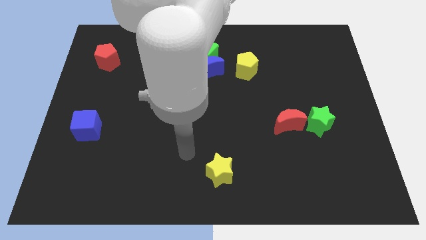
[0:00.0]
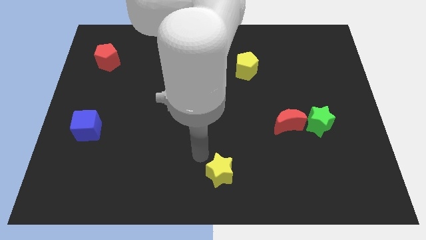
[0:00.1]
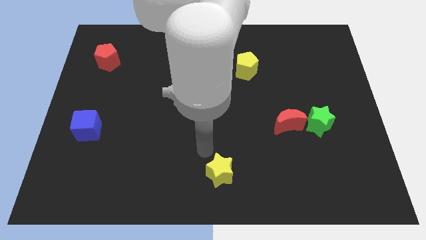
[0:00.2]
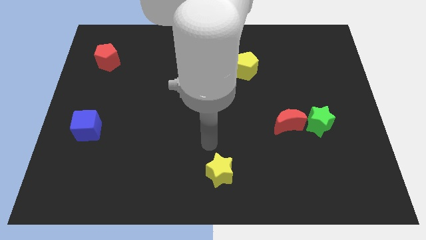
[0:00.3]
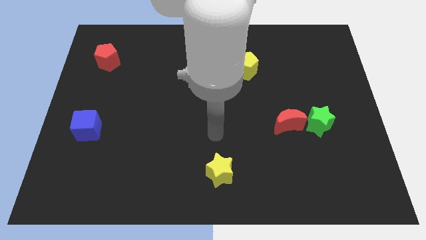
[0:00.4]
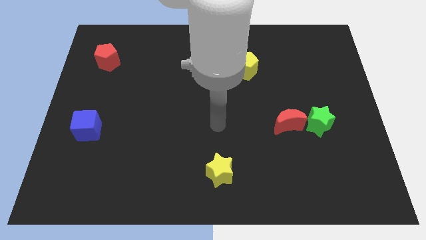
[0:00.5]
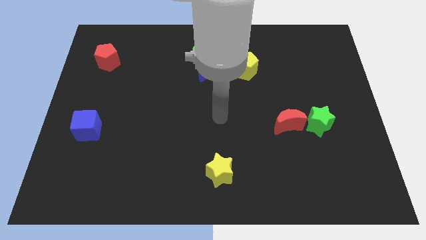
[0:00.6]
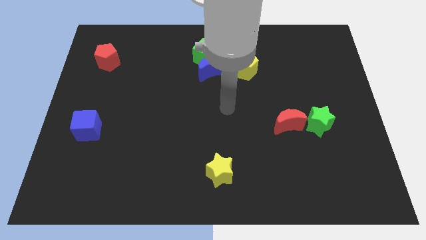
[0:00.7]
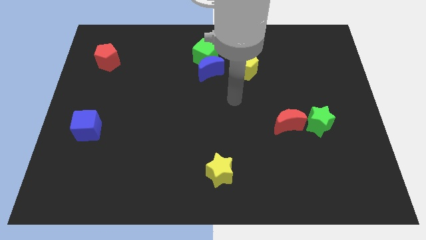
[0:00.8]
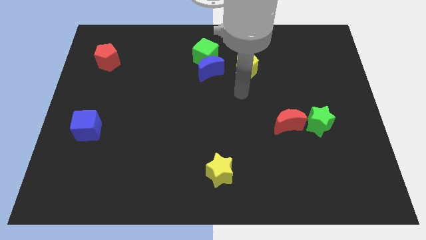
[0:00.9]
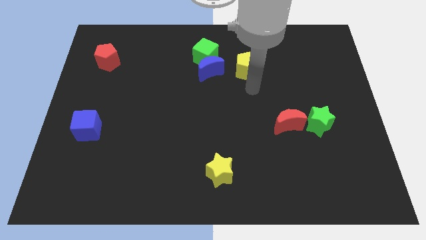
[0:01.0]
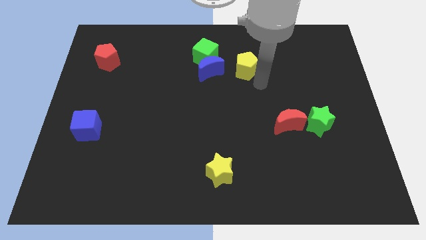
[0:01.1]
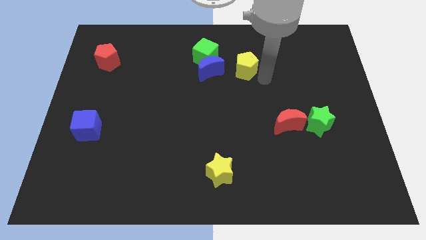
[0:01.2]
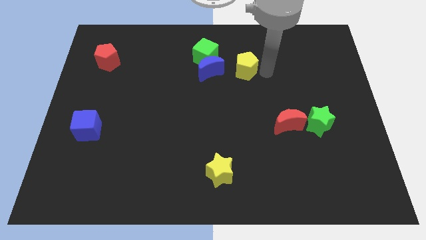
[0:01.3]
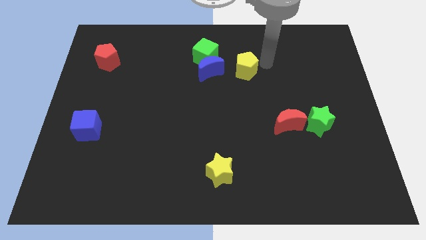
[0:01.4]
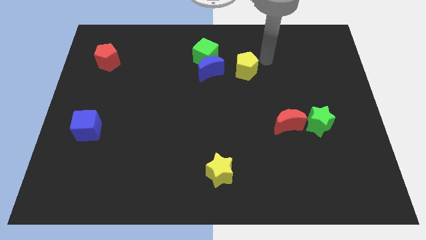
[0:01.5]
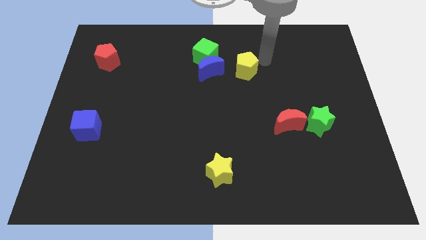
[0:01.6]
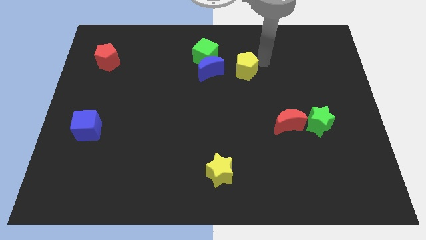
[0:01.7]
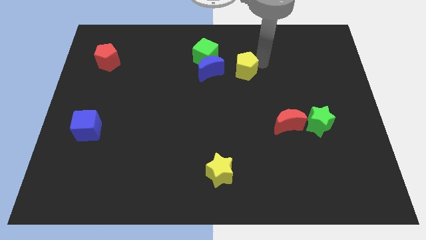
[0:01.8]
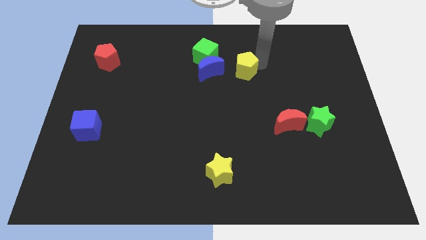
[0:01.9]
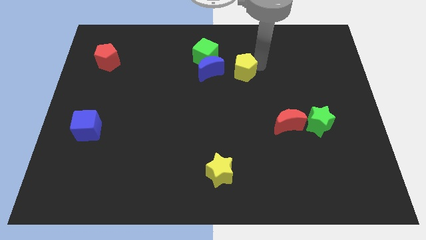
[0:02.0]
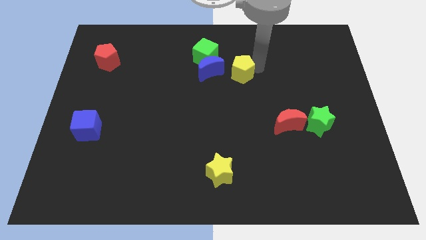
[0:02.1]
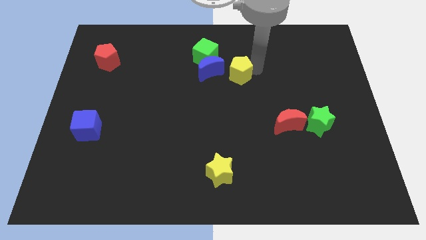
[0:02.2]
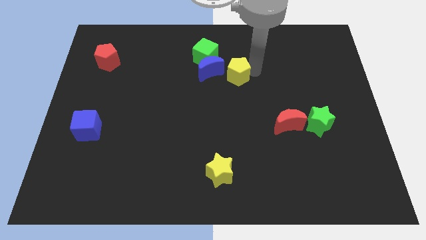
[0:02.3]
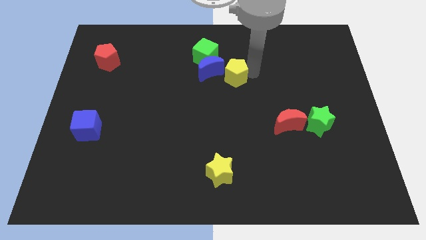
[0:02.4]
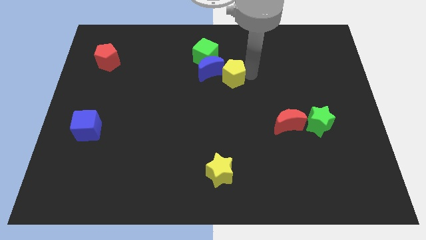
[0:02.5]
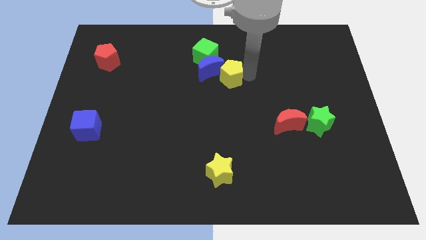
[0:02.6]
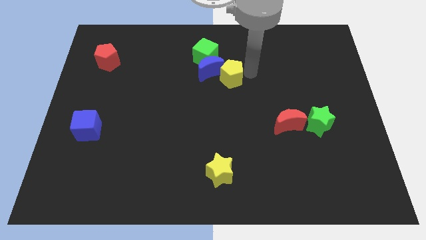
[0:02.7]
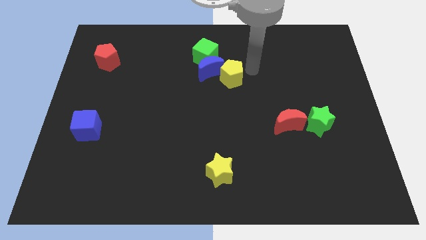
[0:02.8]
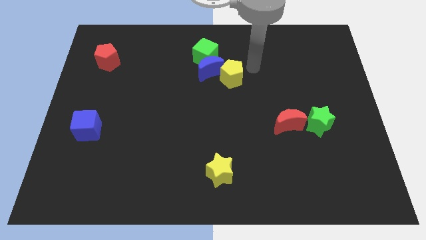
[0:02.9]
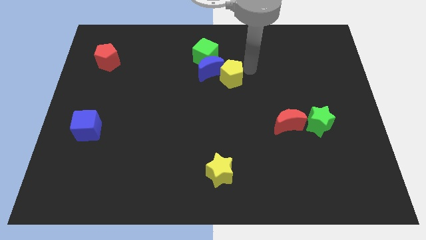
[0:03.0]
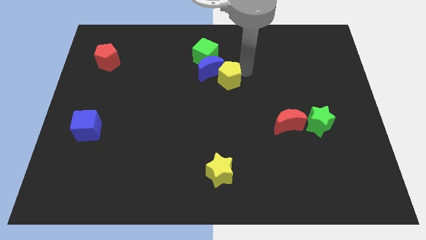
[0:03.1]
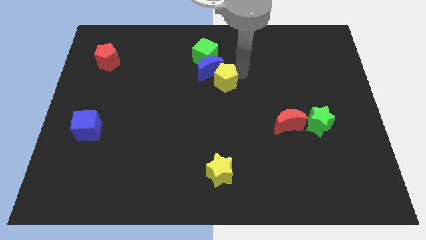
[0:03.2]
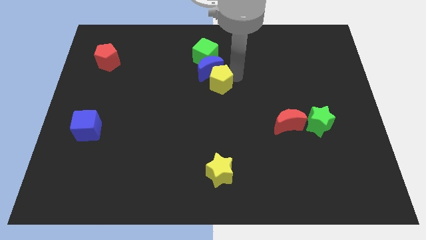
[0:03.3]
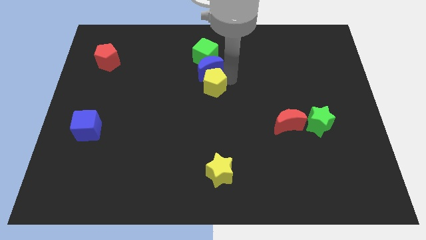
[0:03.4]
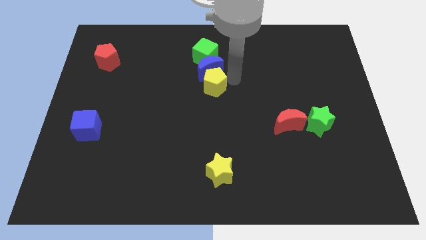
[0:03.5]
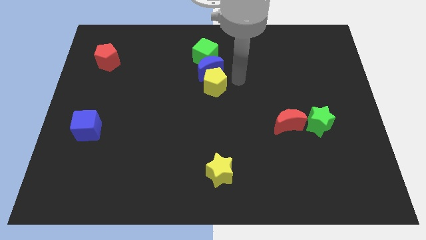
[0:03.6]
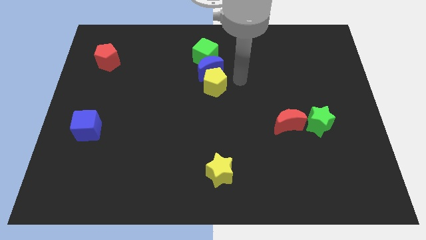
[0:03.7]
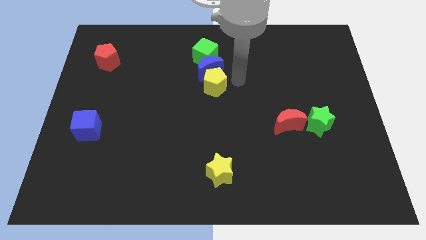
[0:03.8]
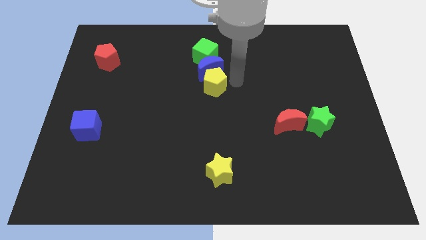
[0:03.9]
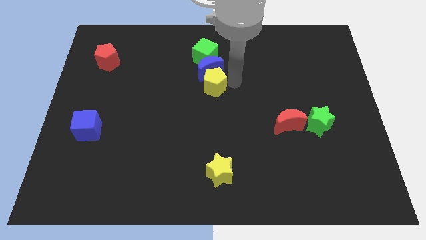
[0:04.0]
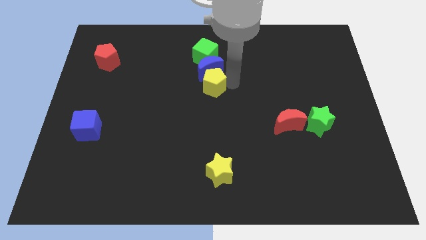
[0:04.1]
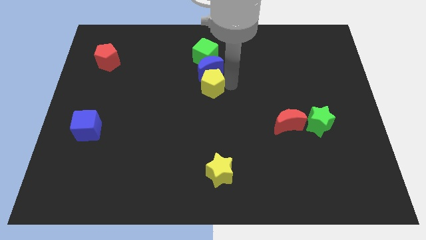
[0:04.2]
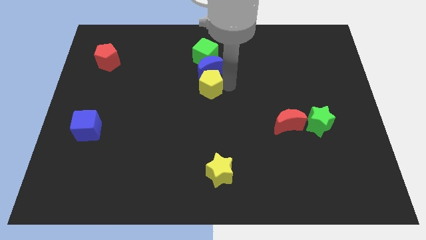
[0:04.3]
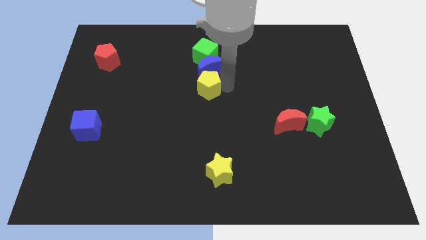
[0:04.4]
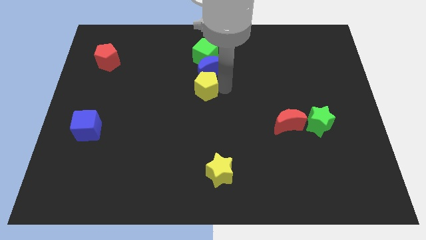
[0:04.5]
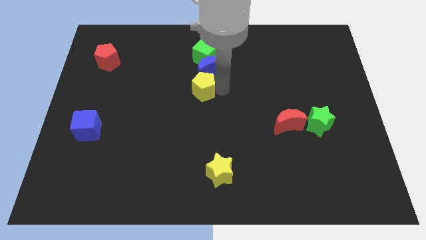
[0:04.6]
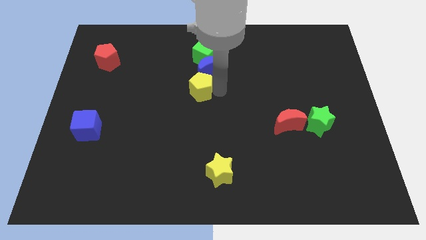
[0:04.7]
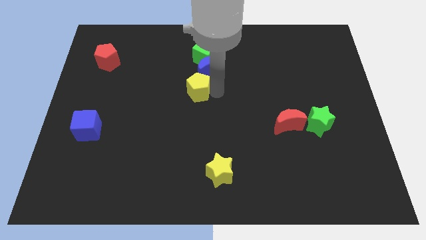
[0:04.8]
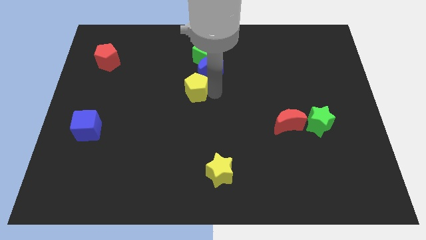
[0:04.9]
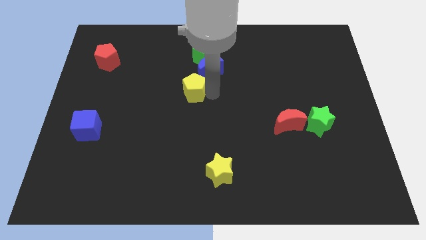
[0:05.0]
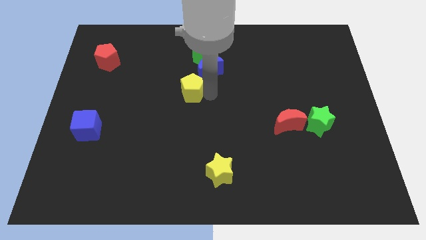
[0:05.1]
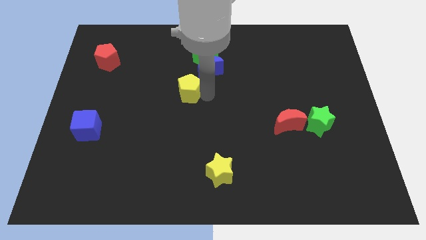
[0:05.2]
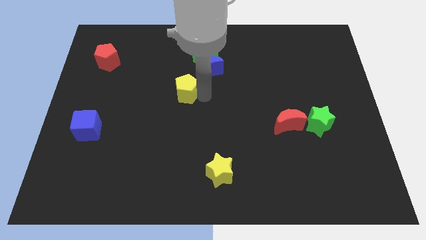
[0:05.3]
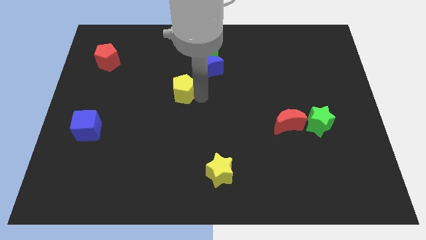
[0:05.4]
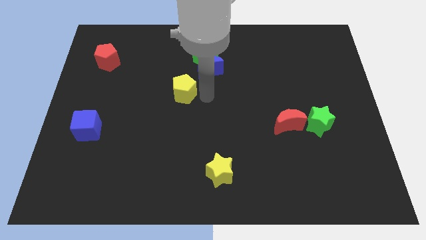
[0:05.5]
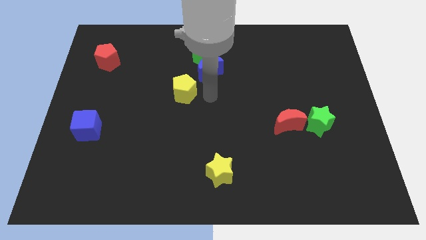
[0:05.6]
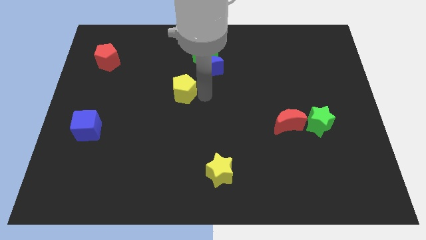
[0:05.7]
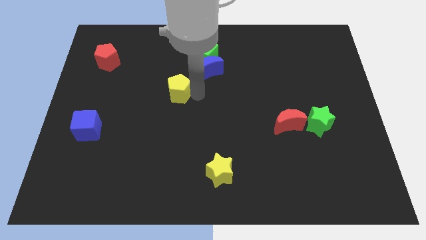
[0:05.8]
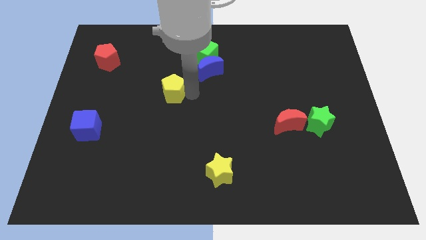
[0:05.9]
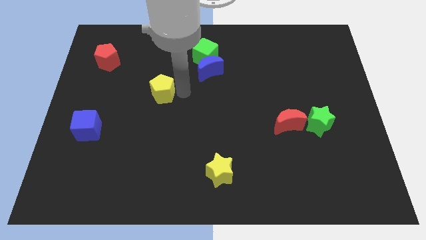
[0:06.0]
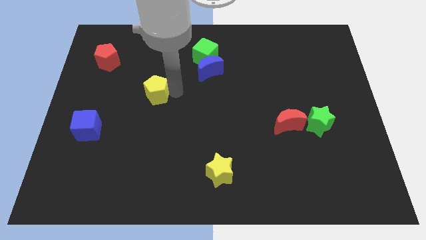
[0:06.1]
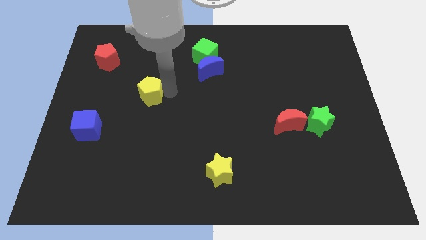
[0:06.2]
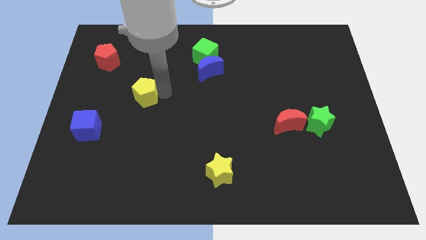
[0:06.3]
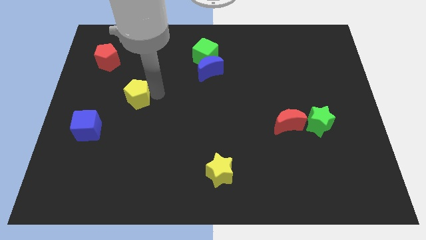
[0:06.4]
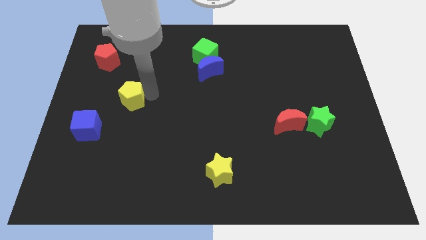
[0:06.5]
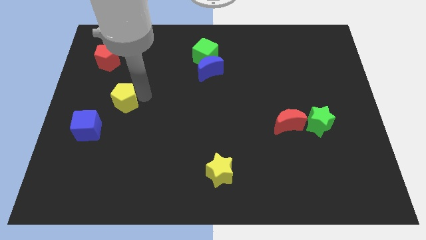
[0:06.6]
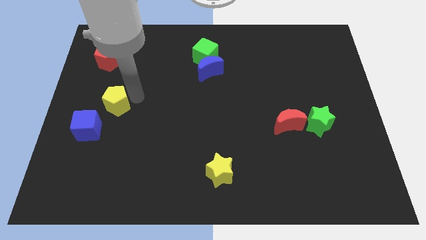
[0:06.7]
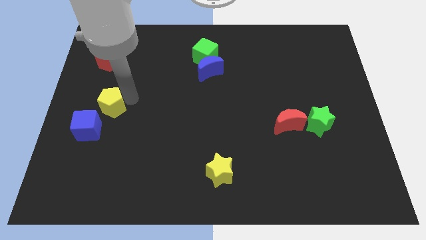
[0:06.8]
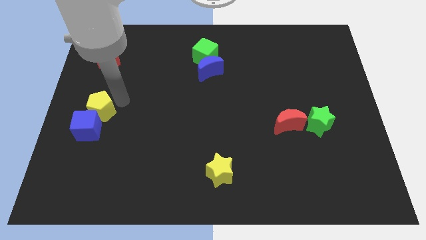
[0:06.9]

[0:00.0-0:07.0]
push the yellow pentagon next to the blue cube

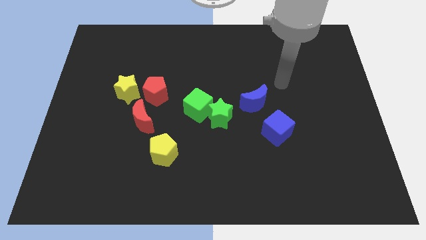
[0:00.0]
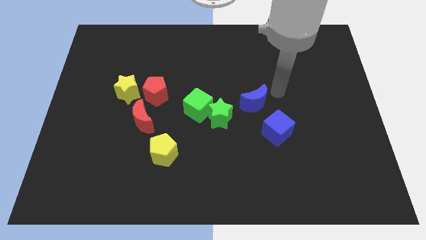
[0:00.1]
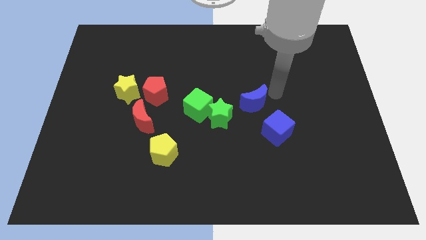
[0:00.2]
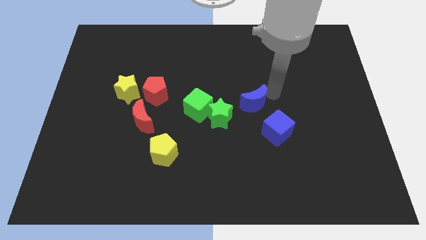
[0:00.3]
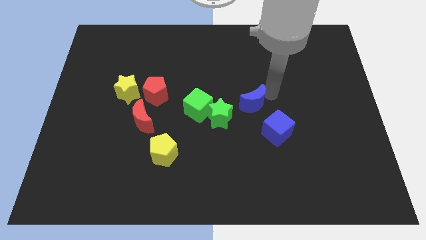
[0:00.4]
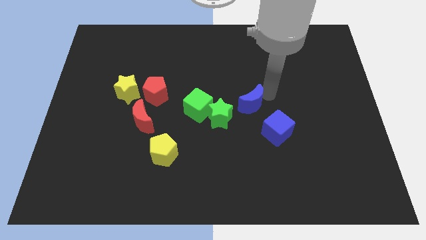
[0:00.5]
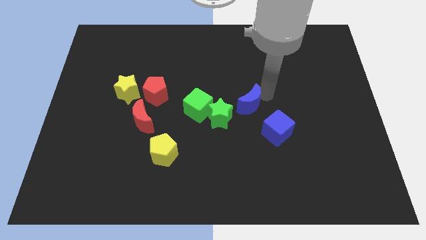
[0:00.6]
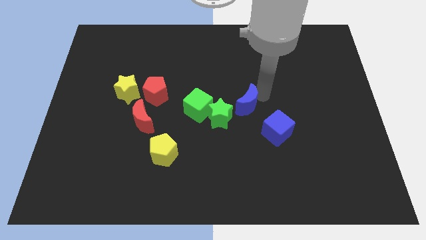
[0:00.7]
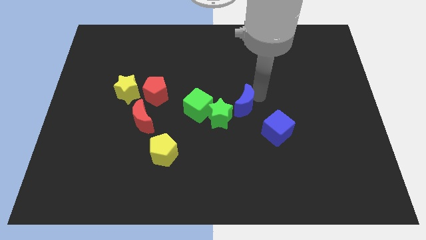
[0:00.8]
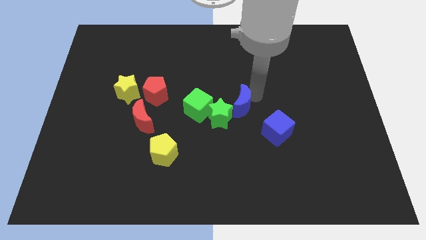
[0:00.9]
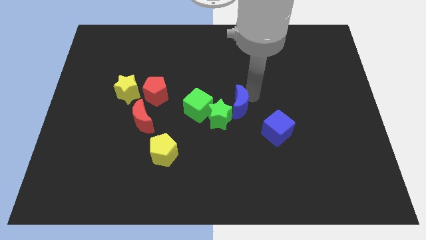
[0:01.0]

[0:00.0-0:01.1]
put the blue moon next to the green star
